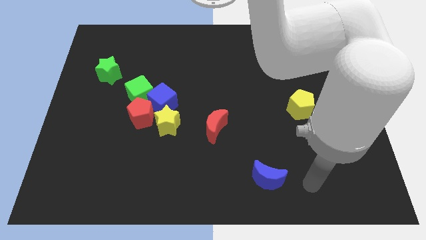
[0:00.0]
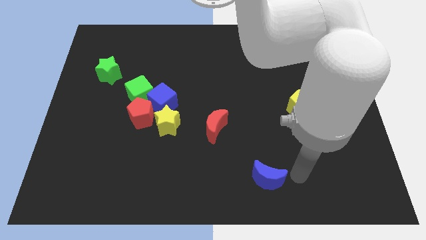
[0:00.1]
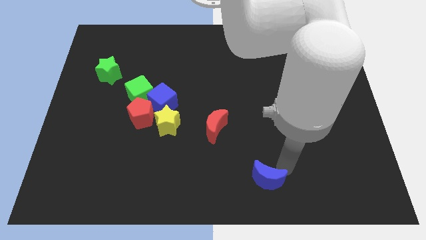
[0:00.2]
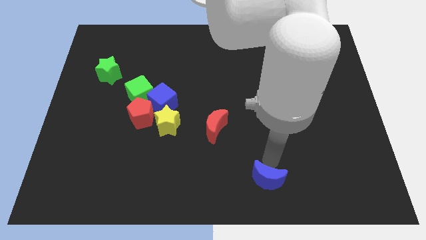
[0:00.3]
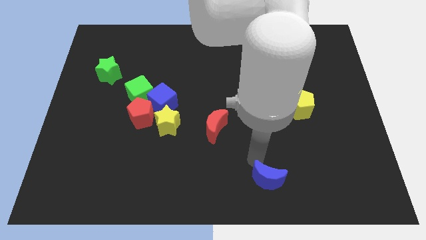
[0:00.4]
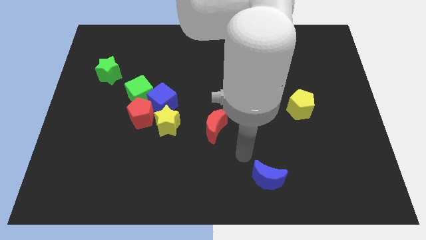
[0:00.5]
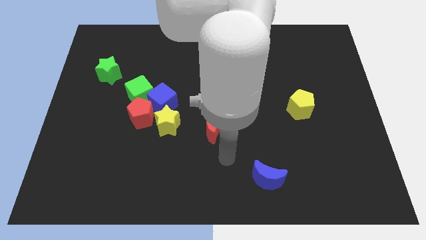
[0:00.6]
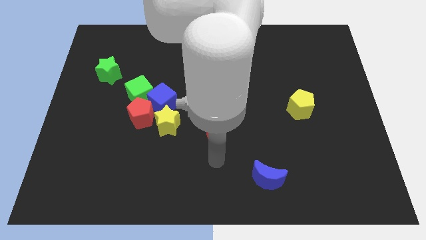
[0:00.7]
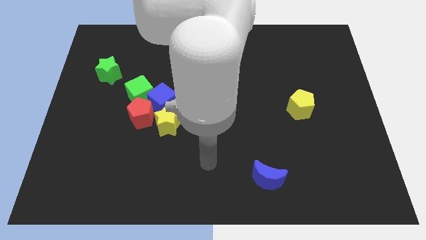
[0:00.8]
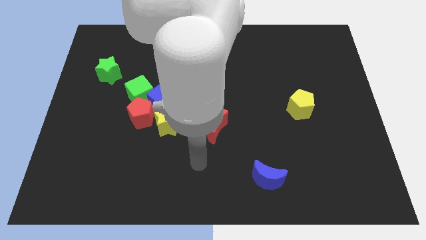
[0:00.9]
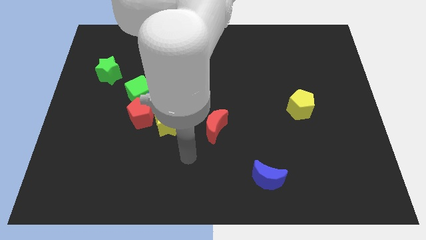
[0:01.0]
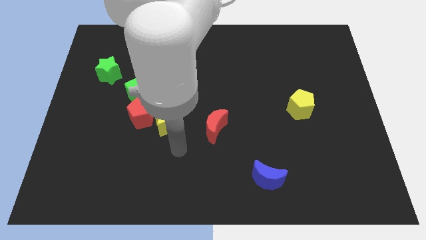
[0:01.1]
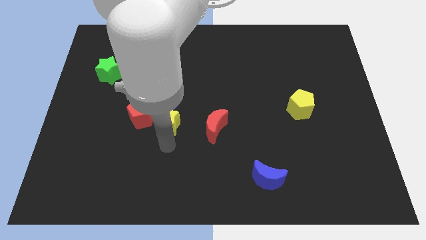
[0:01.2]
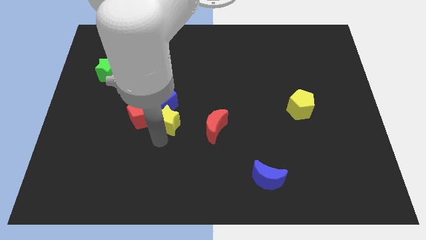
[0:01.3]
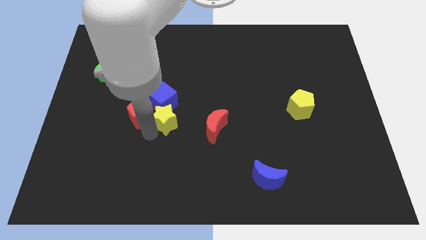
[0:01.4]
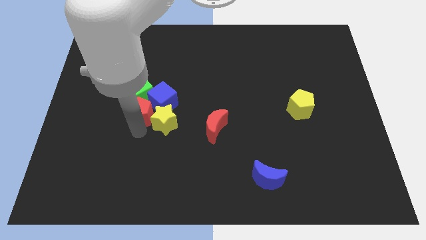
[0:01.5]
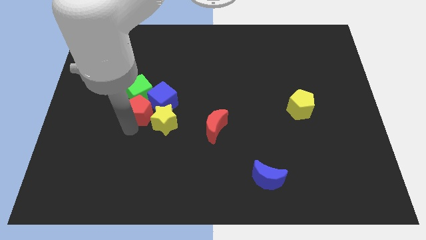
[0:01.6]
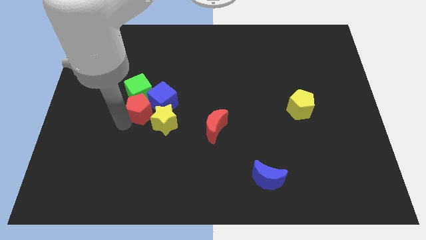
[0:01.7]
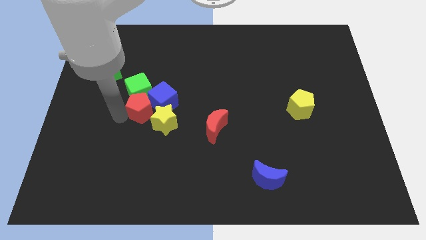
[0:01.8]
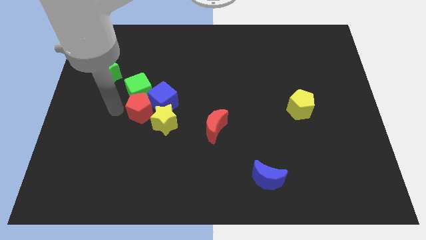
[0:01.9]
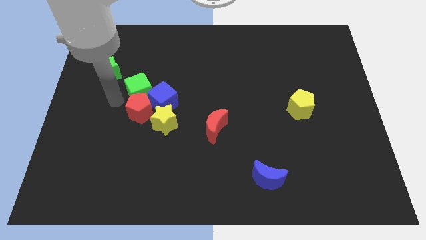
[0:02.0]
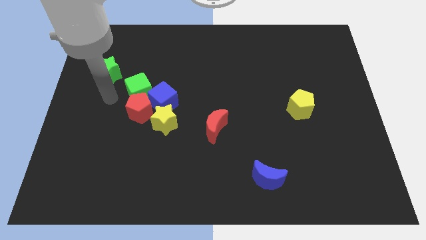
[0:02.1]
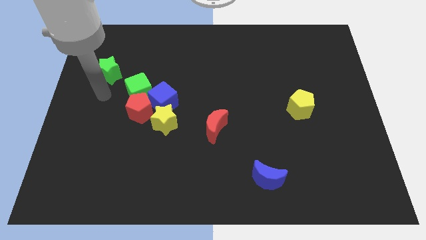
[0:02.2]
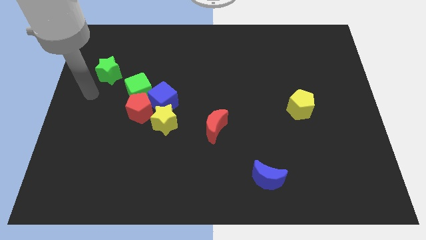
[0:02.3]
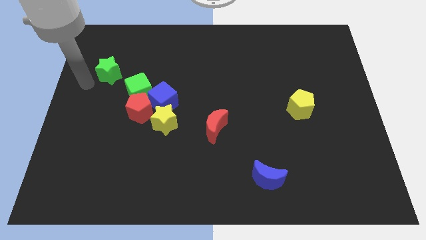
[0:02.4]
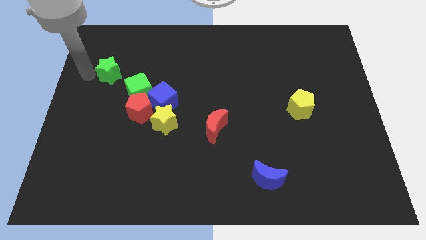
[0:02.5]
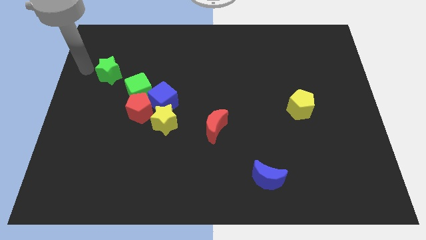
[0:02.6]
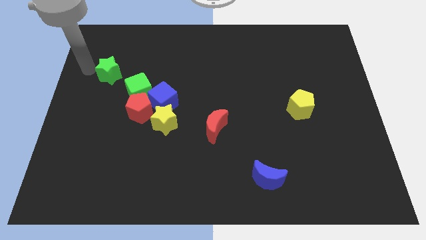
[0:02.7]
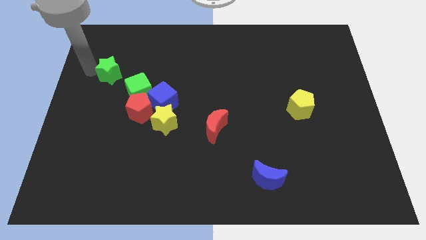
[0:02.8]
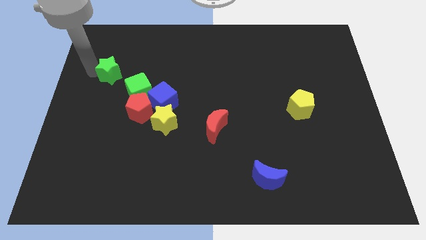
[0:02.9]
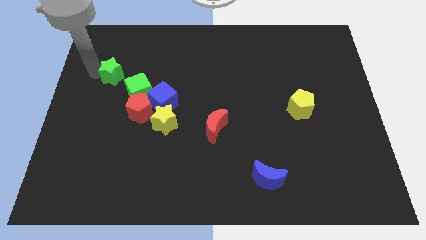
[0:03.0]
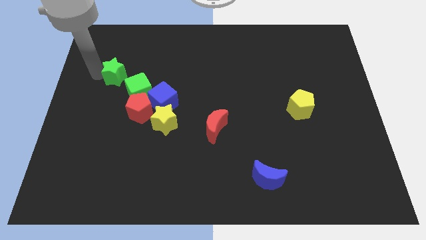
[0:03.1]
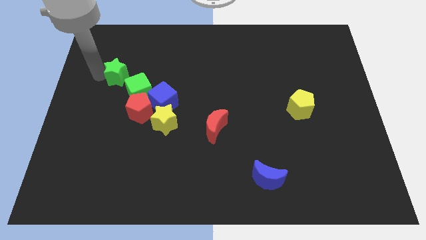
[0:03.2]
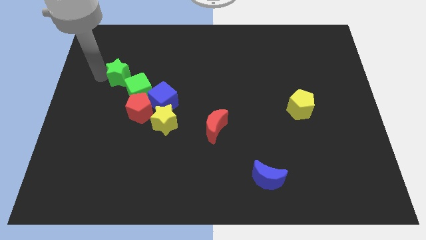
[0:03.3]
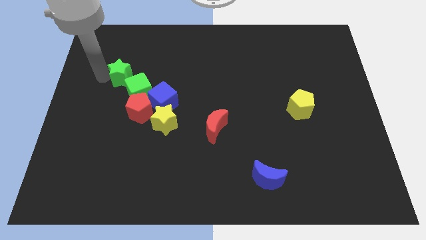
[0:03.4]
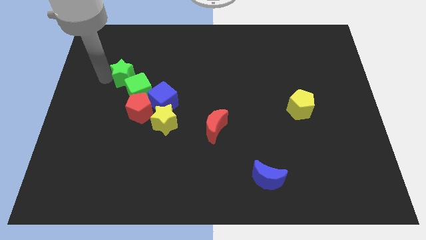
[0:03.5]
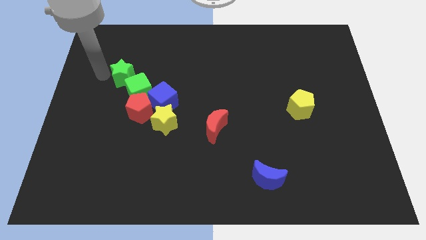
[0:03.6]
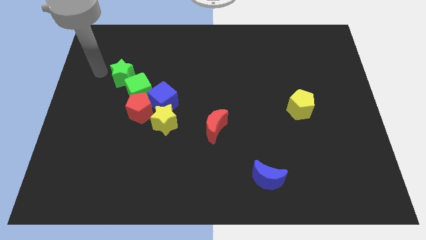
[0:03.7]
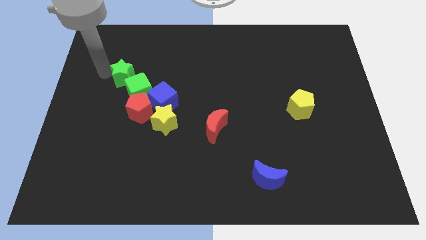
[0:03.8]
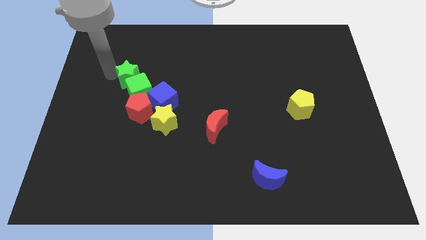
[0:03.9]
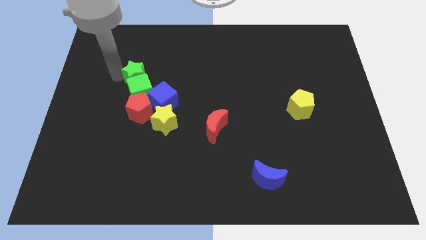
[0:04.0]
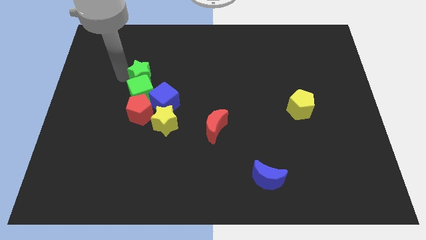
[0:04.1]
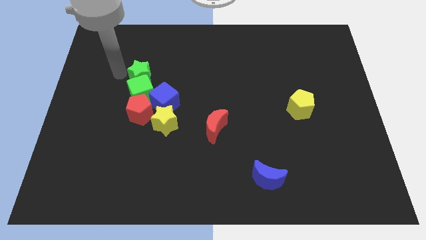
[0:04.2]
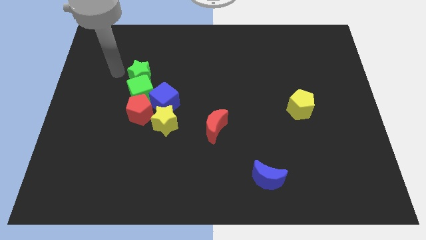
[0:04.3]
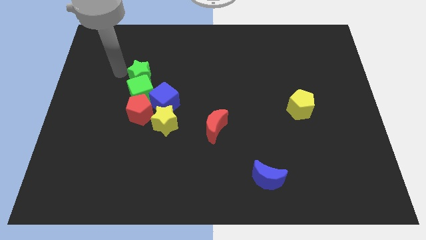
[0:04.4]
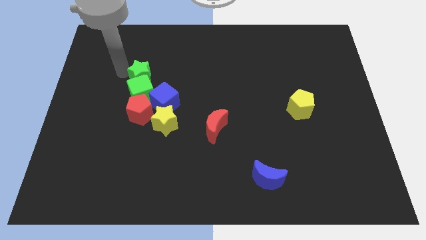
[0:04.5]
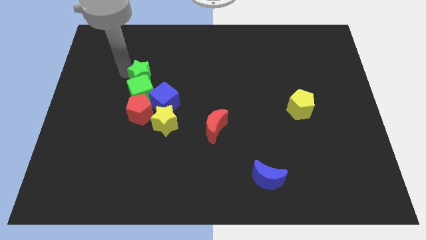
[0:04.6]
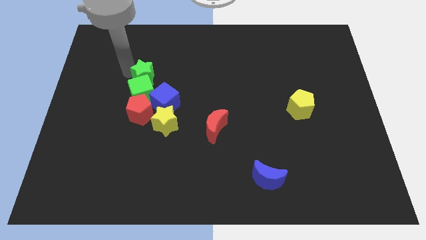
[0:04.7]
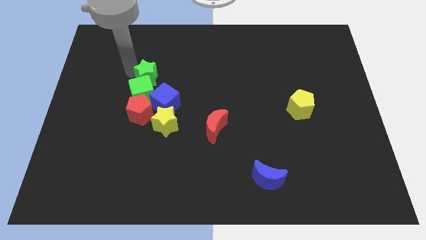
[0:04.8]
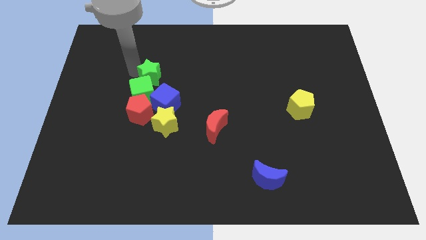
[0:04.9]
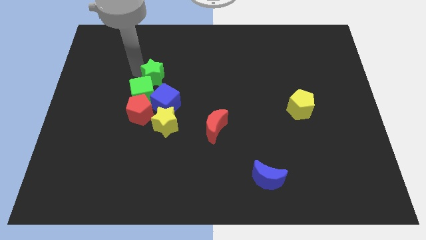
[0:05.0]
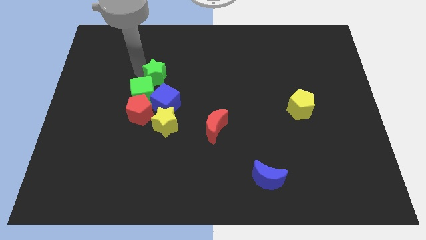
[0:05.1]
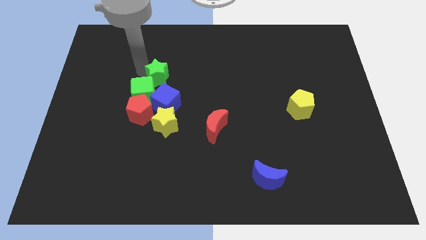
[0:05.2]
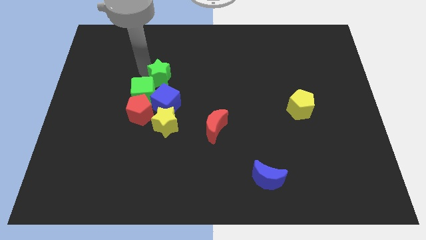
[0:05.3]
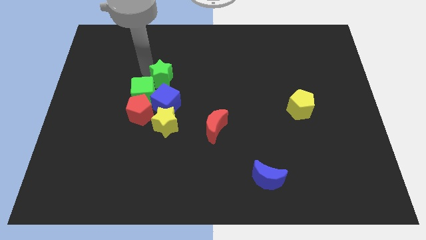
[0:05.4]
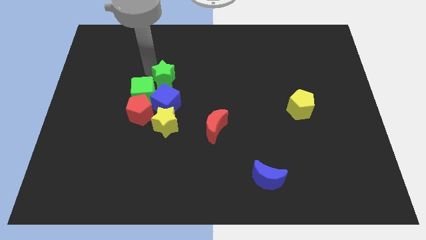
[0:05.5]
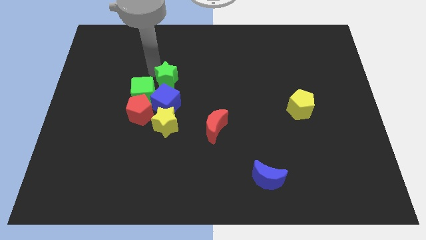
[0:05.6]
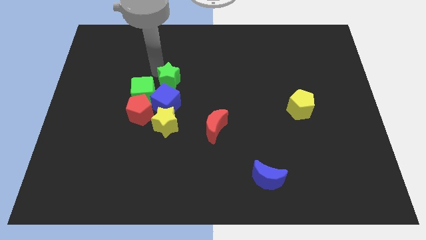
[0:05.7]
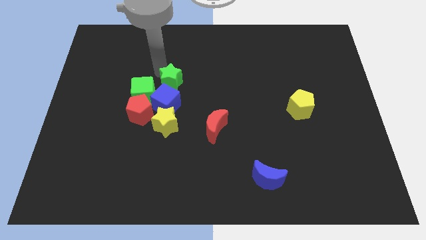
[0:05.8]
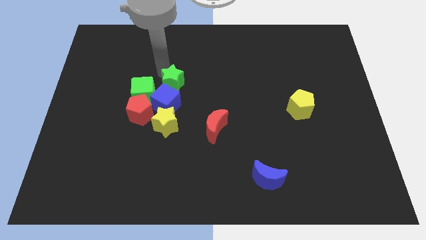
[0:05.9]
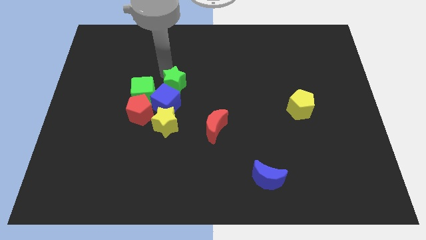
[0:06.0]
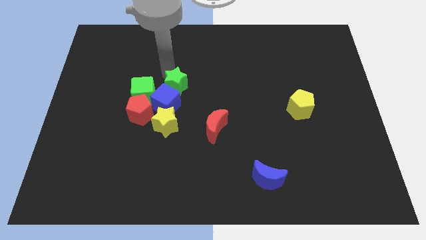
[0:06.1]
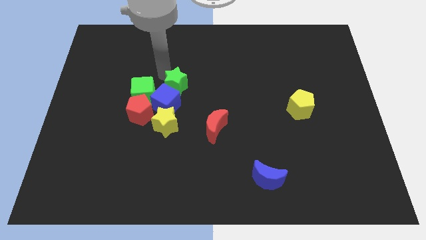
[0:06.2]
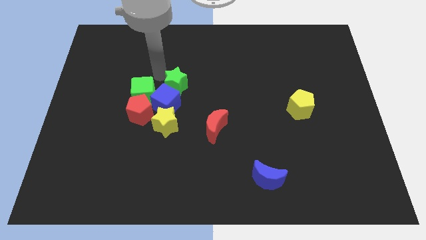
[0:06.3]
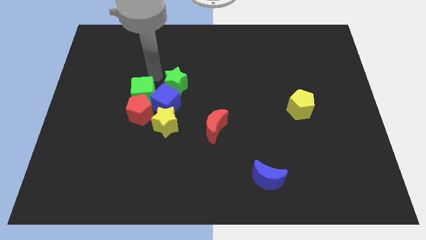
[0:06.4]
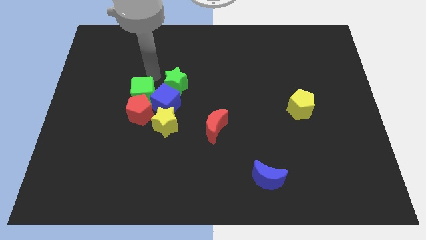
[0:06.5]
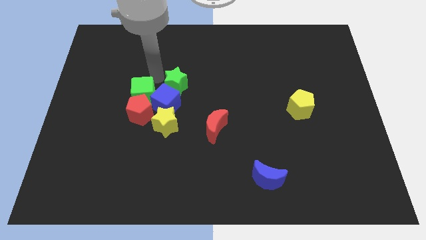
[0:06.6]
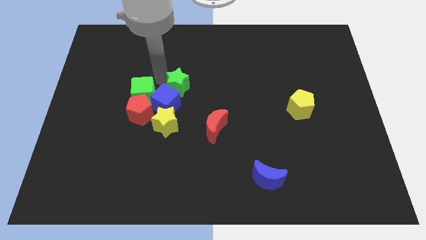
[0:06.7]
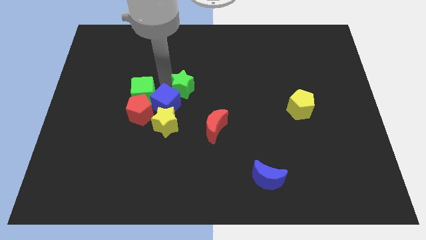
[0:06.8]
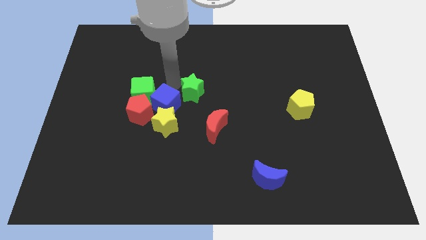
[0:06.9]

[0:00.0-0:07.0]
push the green star right of the blue cube
